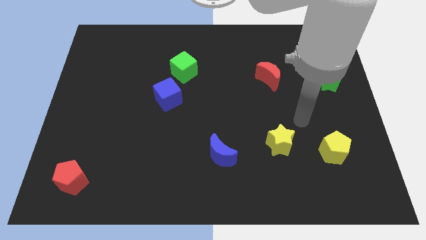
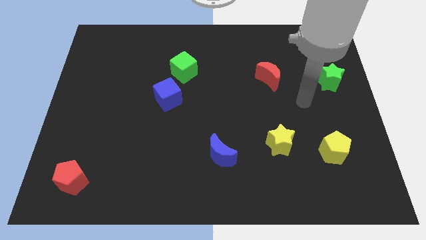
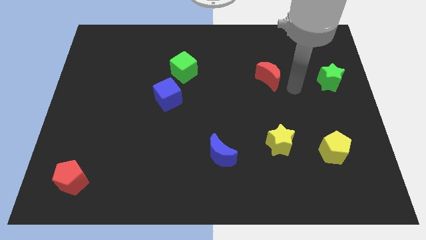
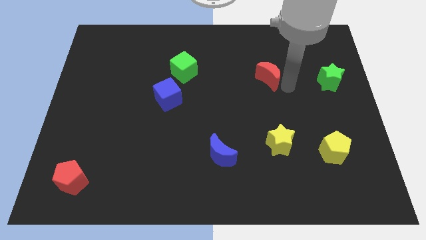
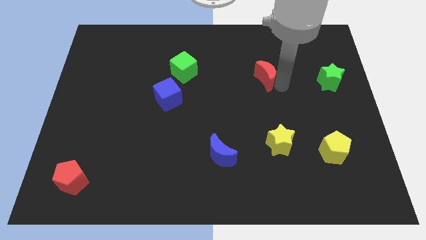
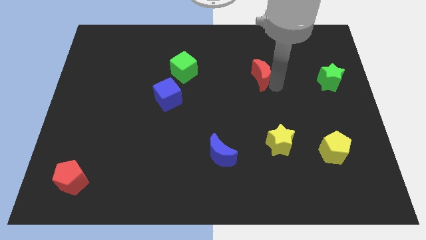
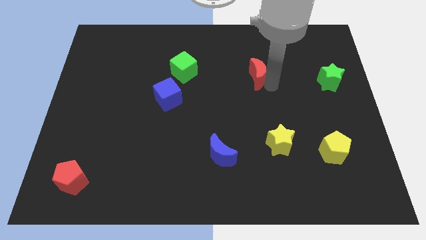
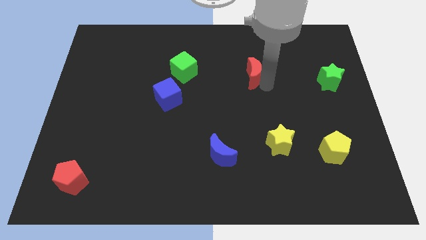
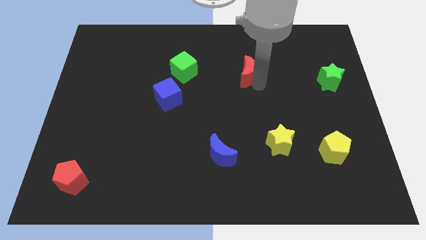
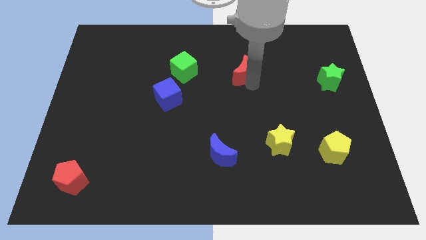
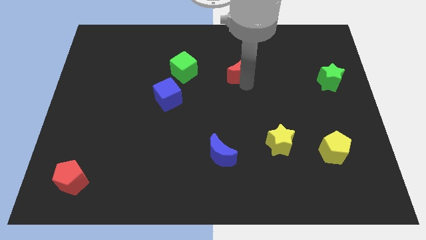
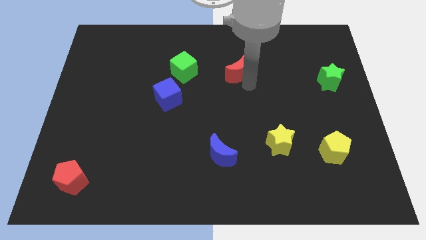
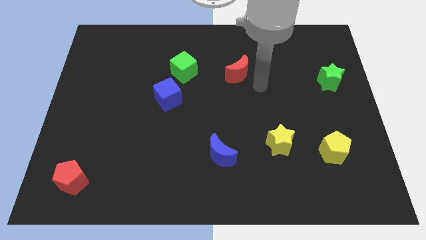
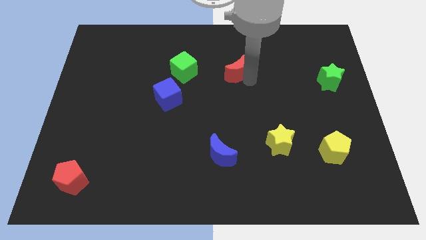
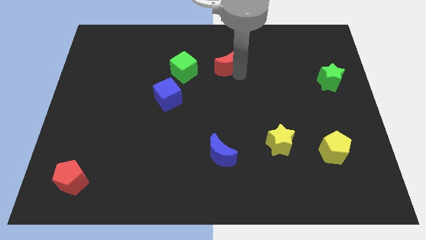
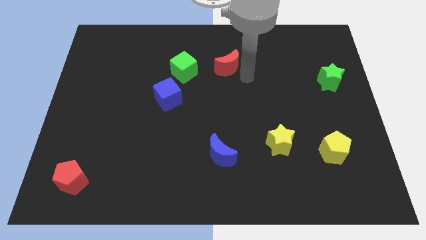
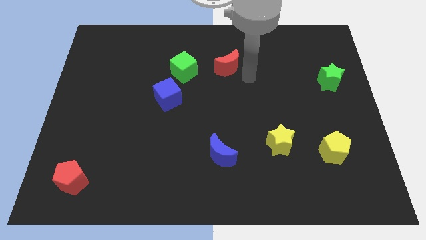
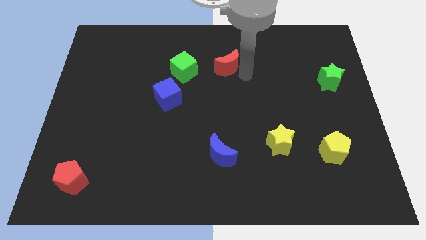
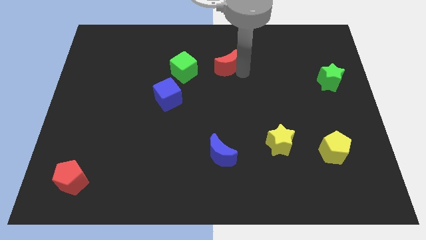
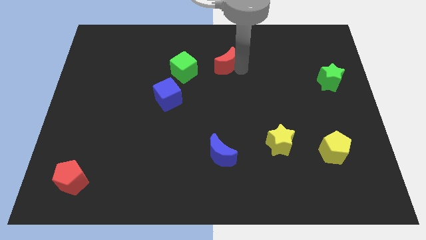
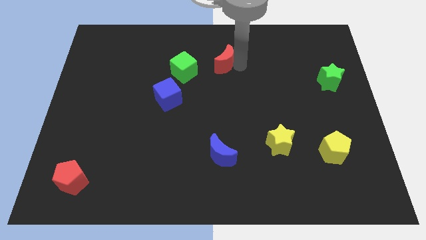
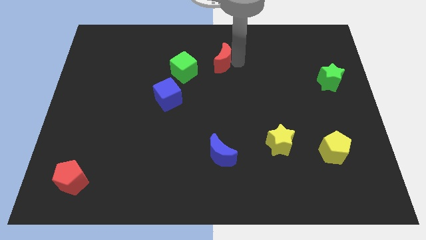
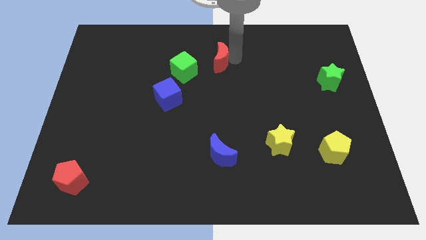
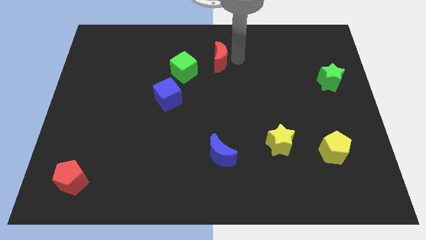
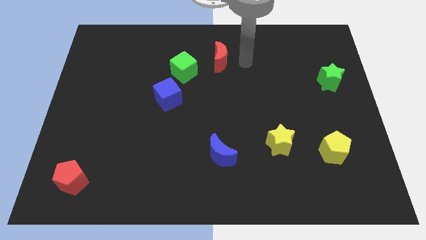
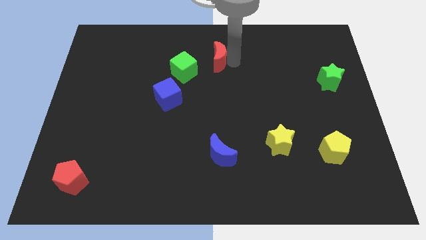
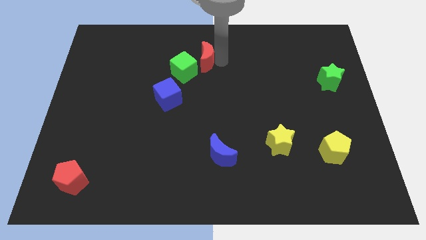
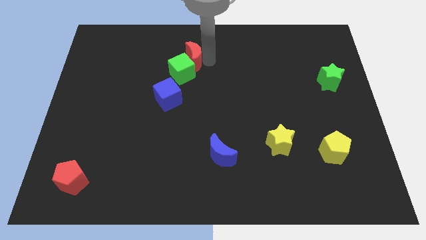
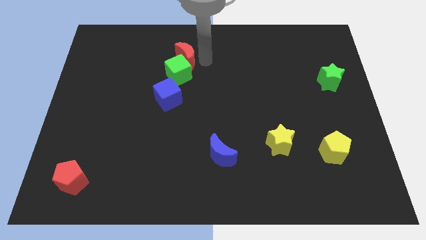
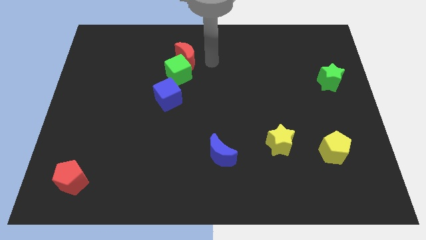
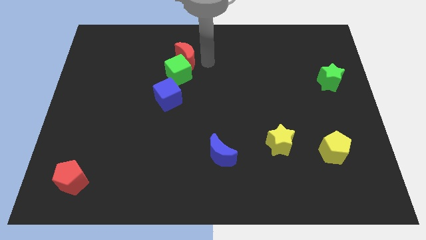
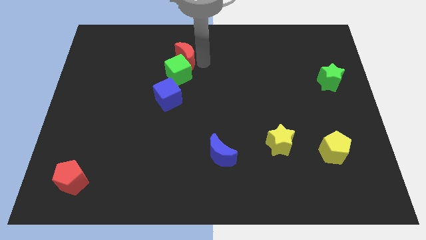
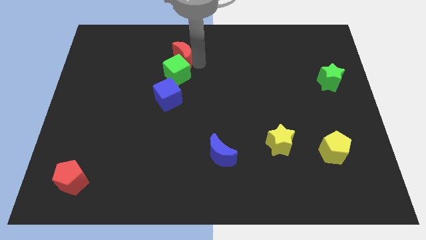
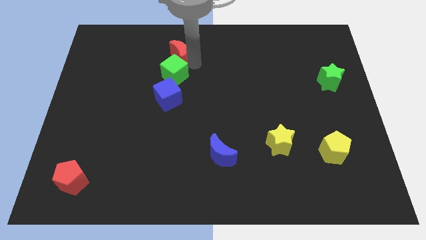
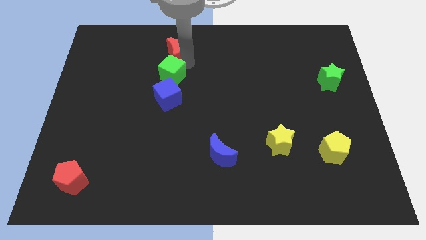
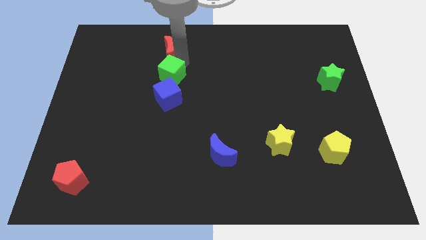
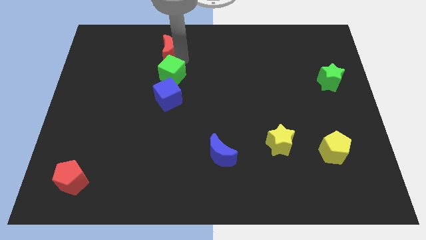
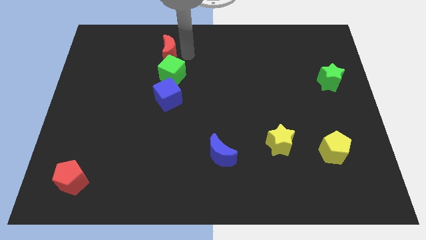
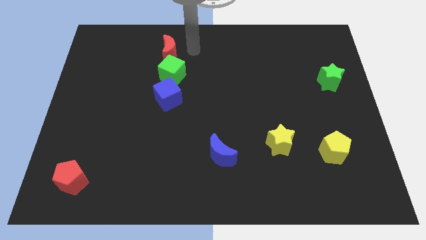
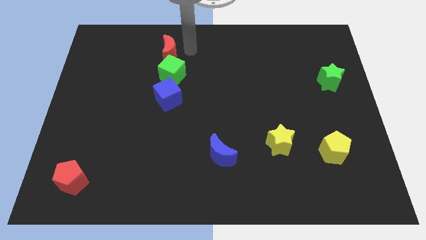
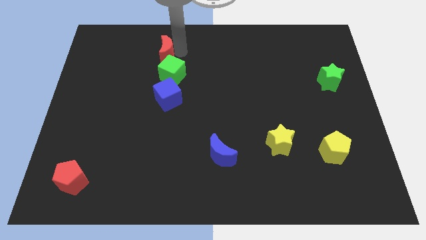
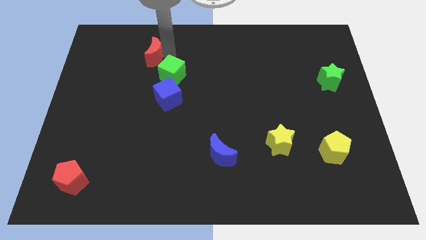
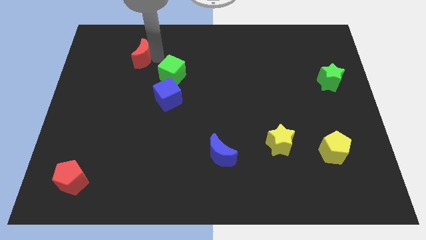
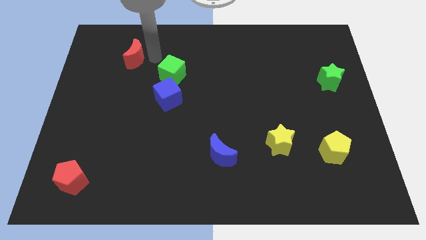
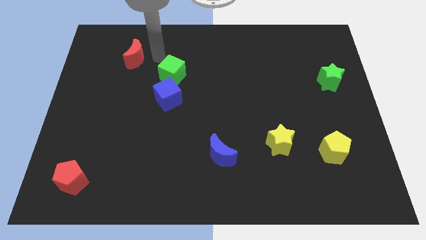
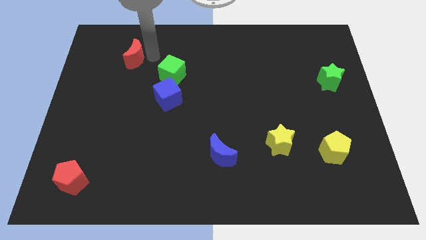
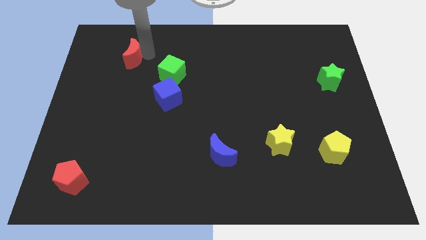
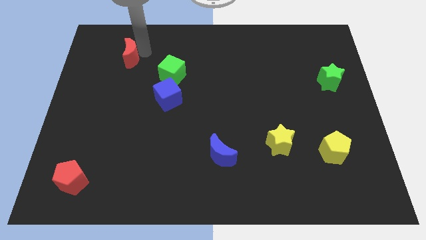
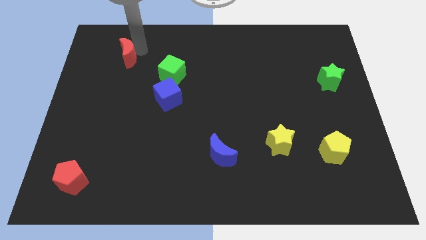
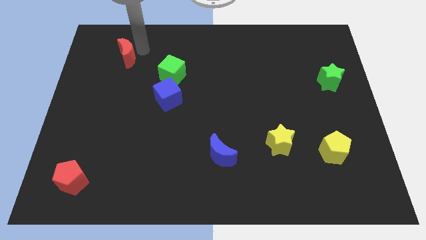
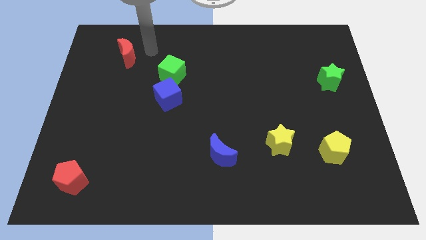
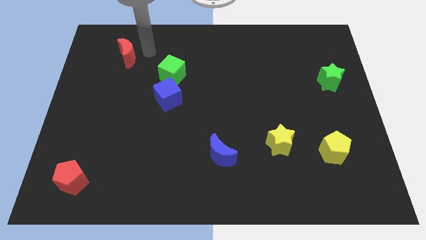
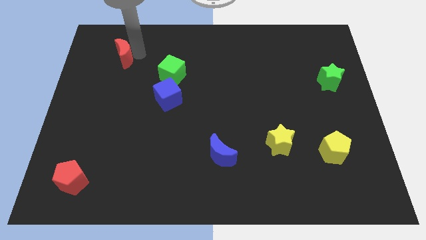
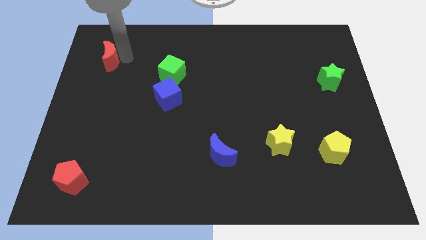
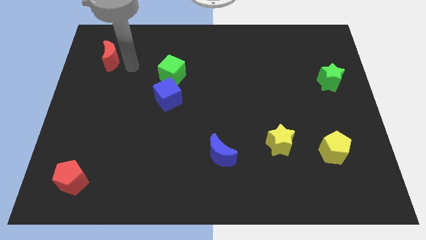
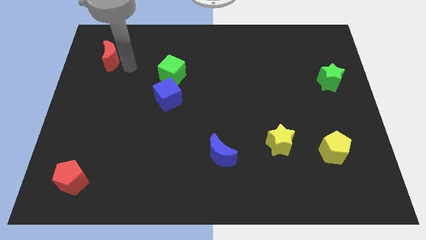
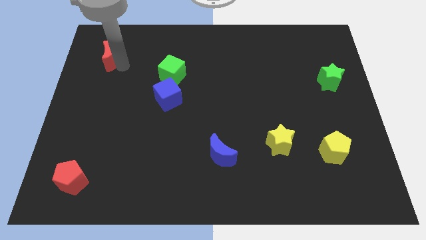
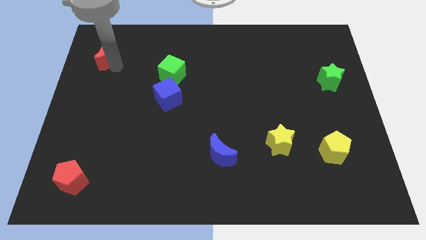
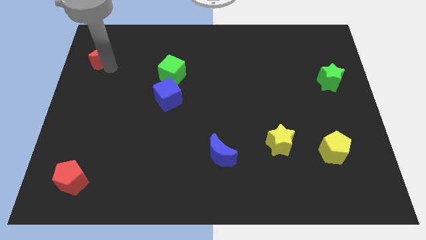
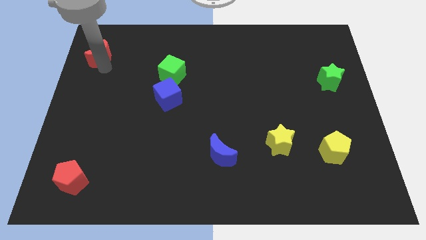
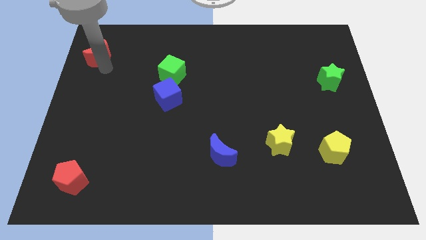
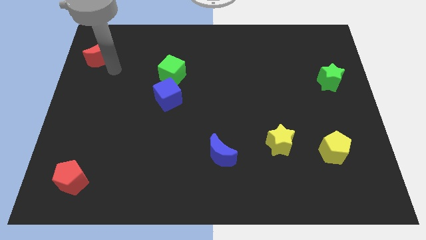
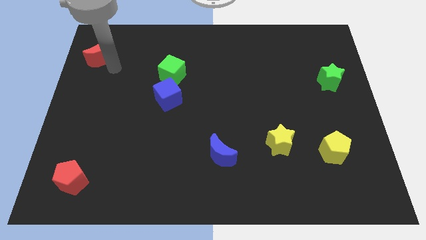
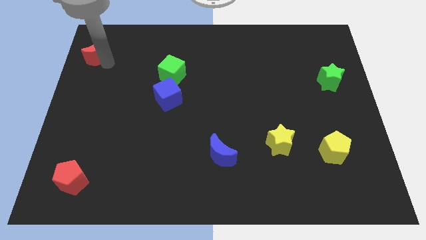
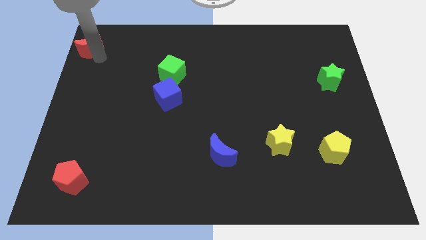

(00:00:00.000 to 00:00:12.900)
slide the red moon to the top left of the board
